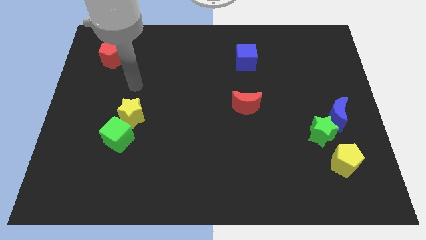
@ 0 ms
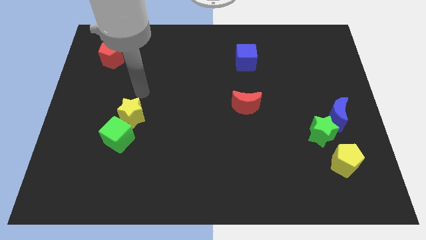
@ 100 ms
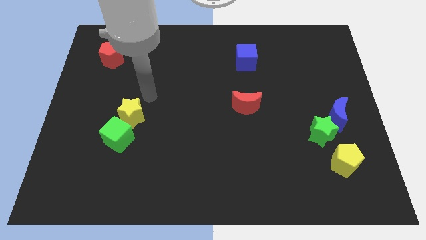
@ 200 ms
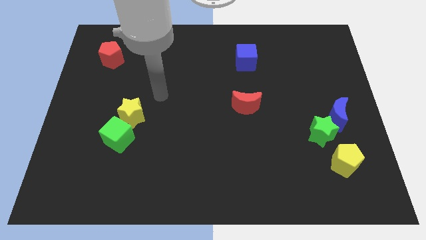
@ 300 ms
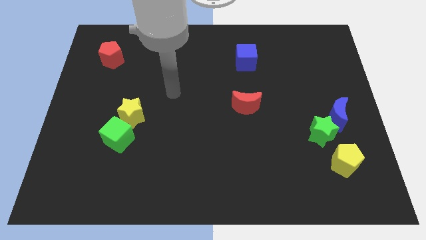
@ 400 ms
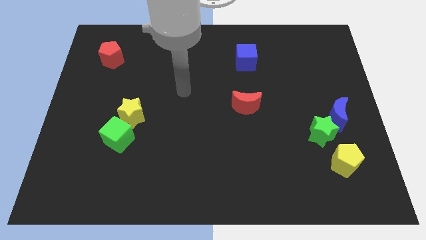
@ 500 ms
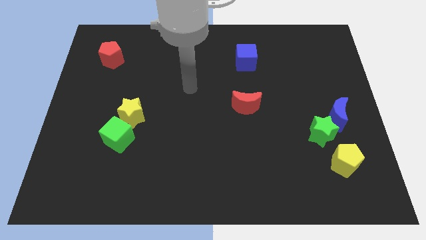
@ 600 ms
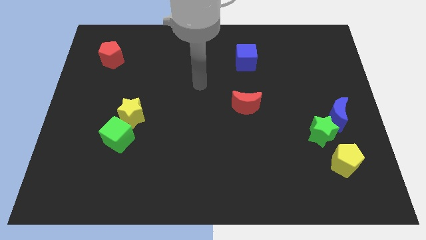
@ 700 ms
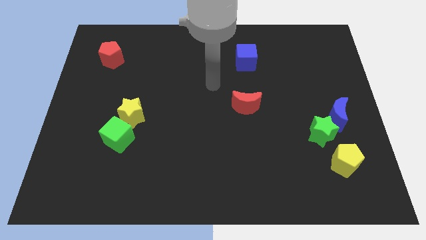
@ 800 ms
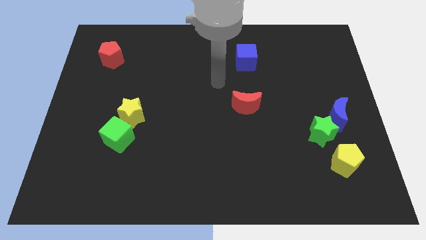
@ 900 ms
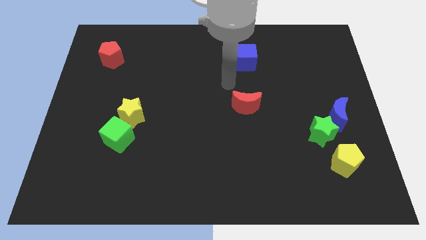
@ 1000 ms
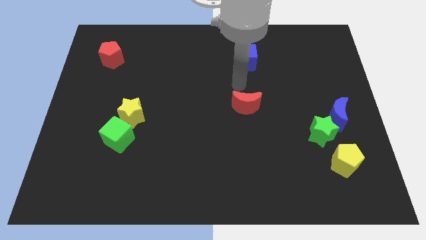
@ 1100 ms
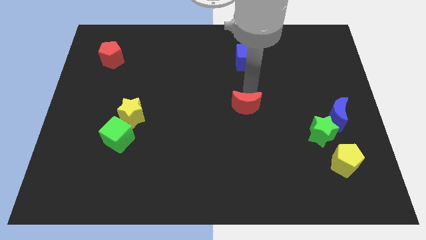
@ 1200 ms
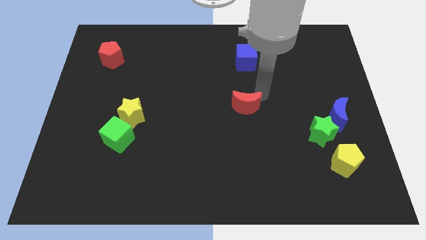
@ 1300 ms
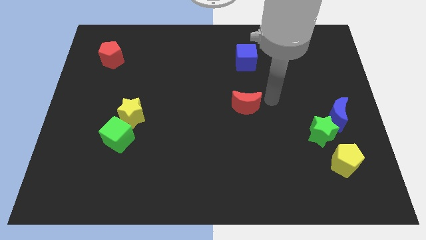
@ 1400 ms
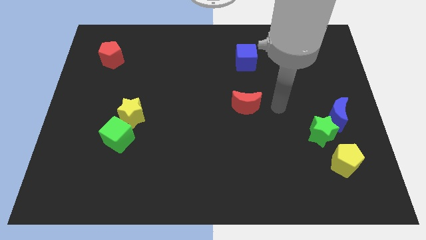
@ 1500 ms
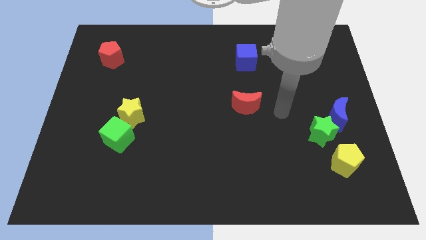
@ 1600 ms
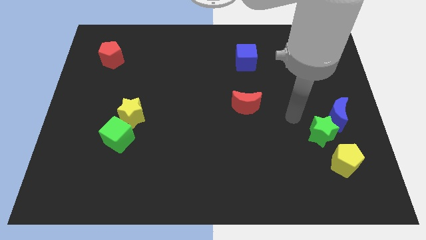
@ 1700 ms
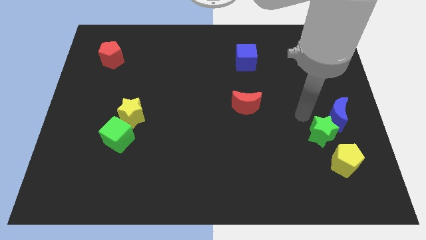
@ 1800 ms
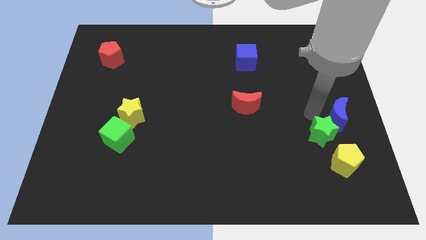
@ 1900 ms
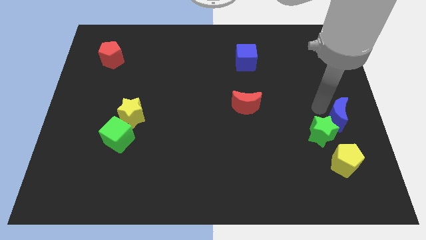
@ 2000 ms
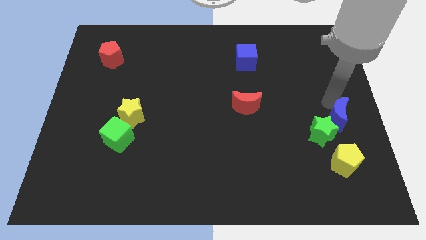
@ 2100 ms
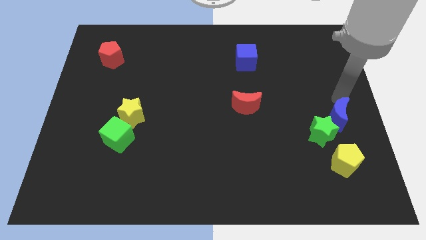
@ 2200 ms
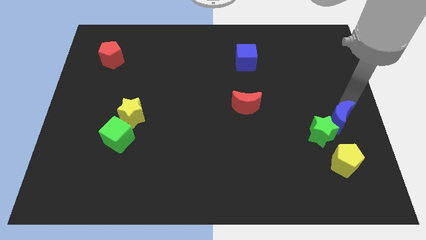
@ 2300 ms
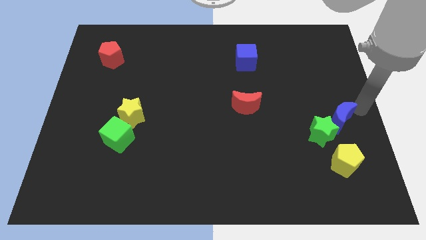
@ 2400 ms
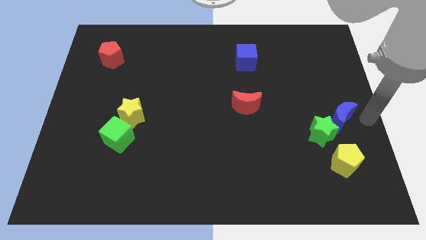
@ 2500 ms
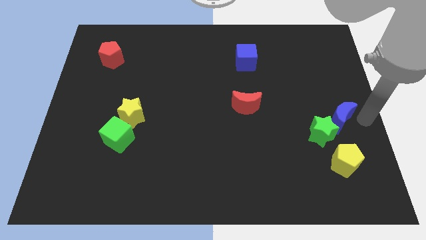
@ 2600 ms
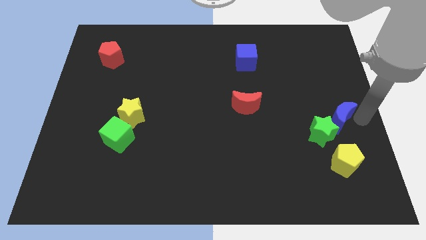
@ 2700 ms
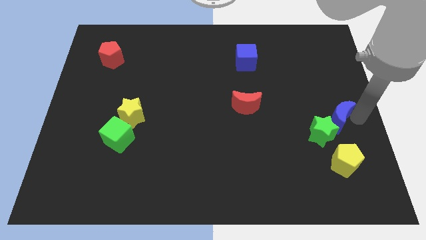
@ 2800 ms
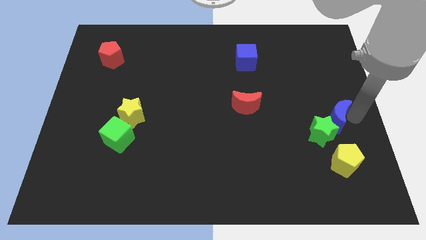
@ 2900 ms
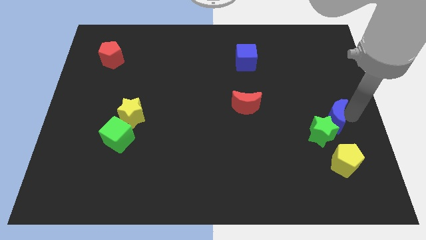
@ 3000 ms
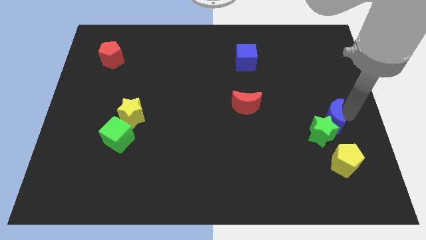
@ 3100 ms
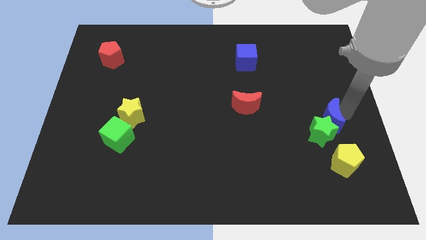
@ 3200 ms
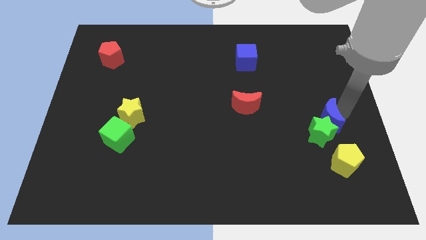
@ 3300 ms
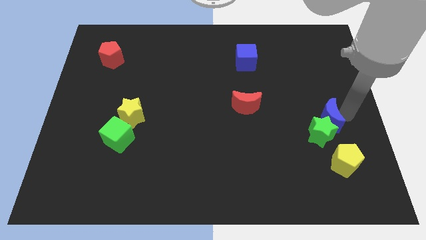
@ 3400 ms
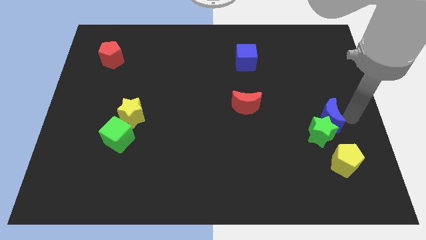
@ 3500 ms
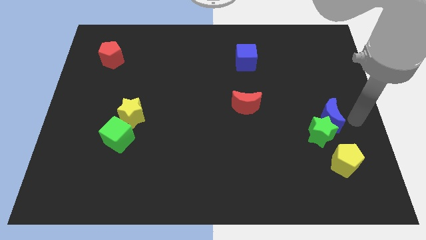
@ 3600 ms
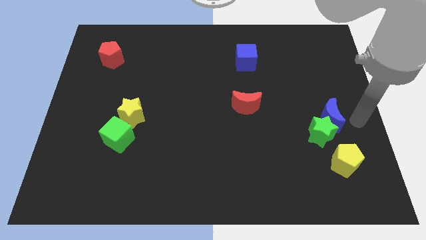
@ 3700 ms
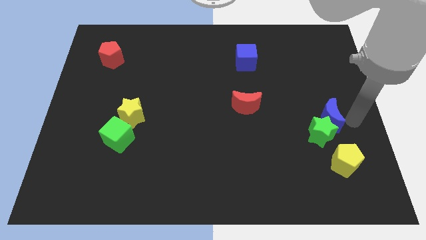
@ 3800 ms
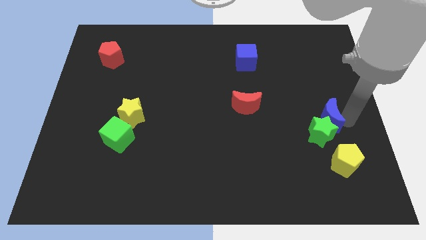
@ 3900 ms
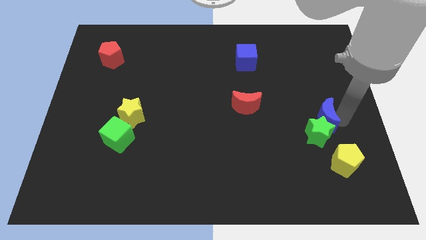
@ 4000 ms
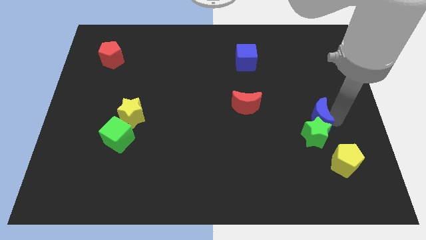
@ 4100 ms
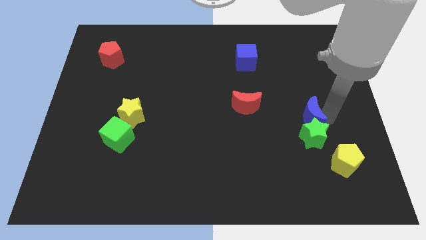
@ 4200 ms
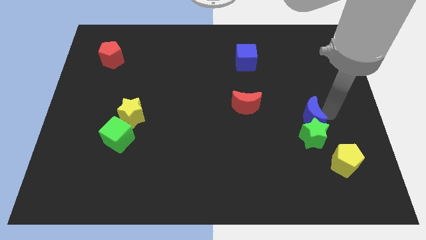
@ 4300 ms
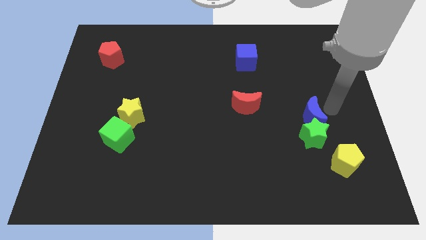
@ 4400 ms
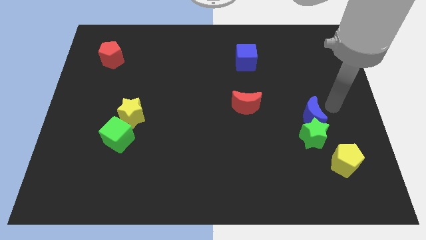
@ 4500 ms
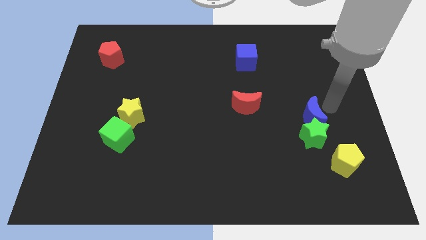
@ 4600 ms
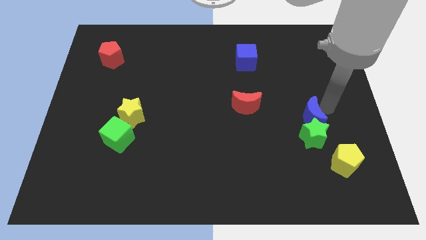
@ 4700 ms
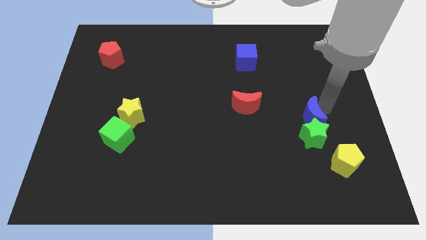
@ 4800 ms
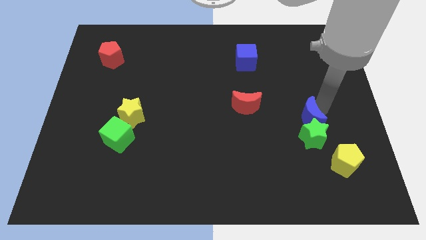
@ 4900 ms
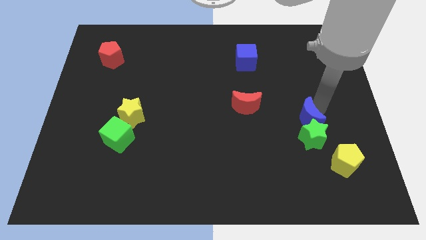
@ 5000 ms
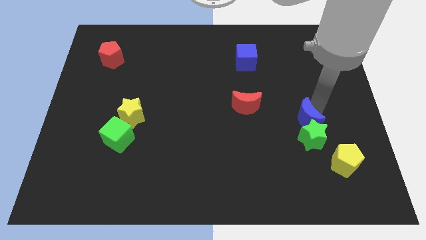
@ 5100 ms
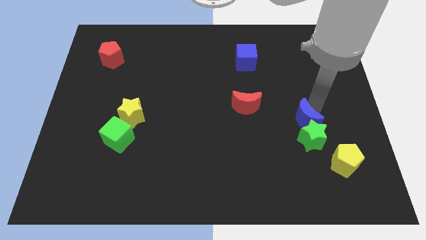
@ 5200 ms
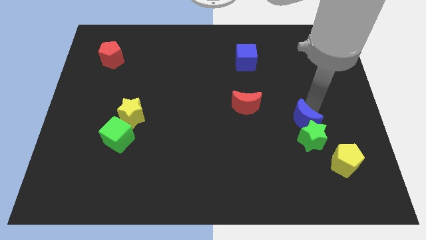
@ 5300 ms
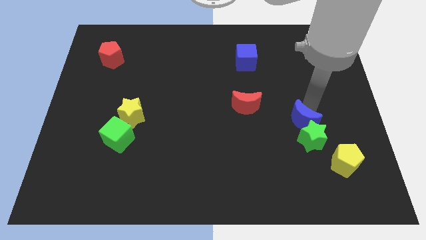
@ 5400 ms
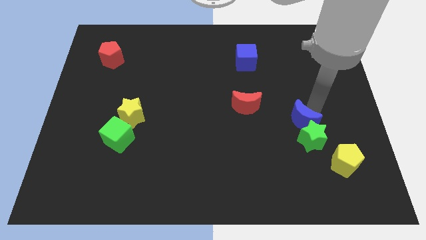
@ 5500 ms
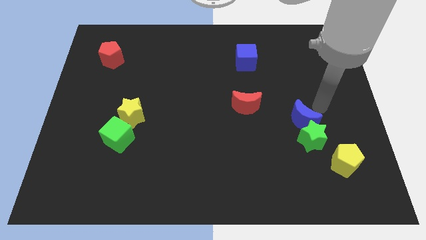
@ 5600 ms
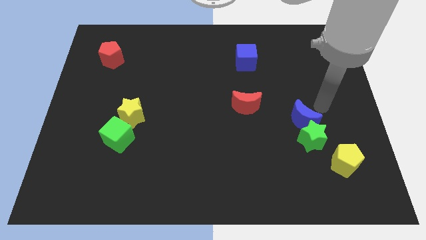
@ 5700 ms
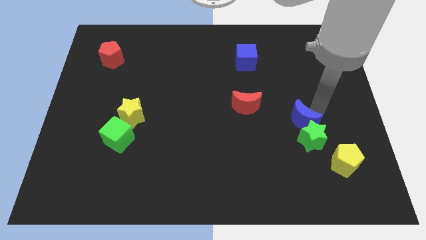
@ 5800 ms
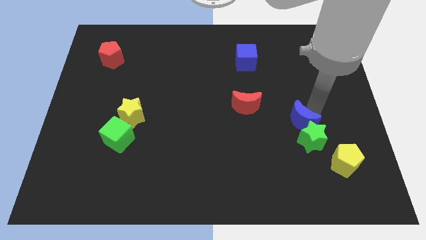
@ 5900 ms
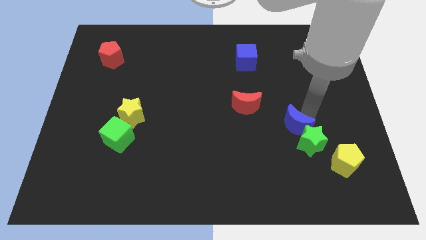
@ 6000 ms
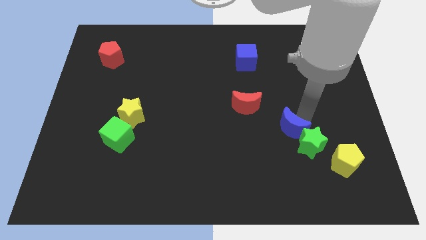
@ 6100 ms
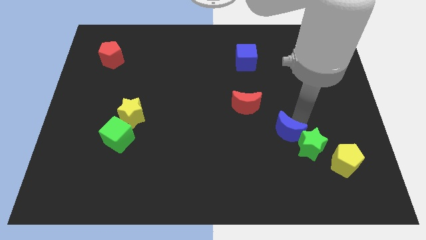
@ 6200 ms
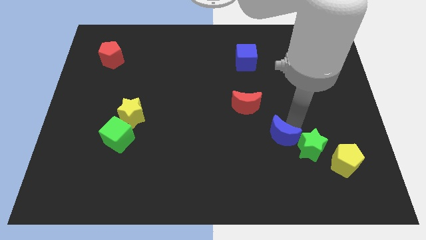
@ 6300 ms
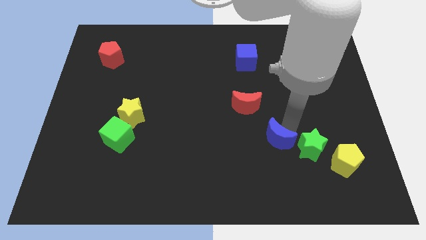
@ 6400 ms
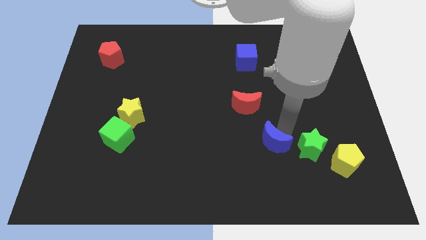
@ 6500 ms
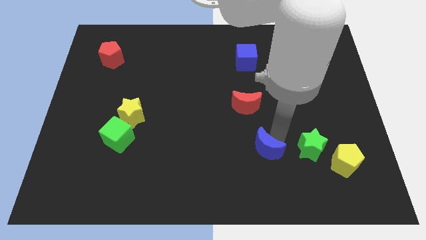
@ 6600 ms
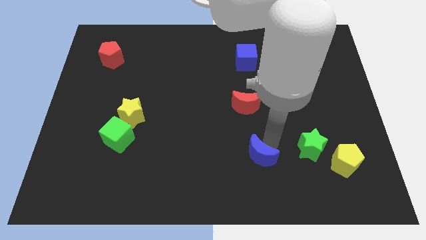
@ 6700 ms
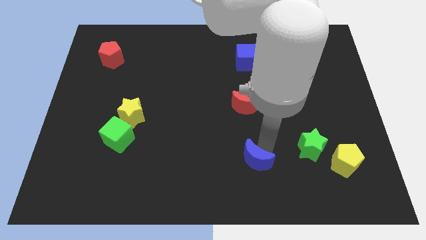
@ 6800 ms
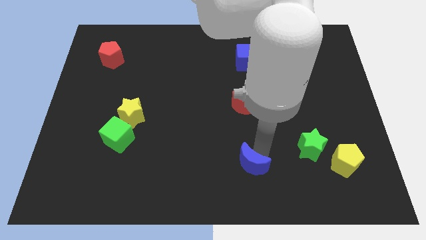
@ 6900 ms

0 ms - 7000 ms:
put the blue moon to the bottom side
